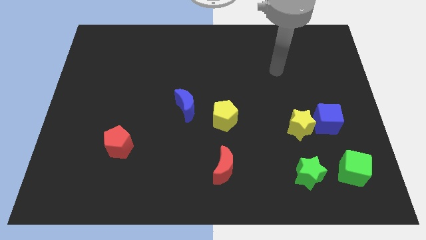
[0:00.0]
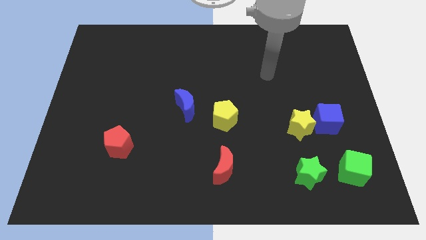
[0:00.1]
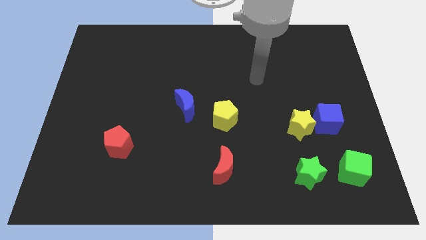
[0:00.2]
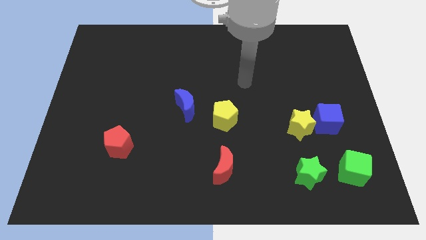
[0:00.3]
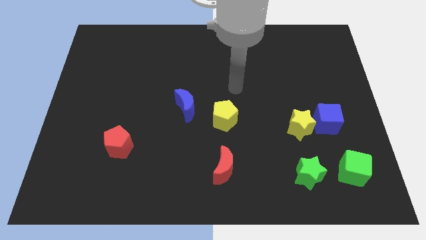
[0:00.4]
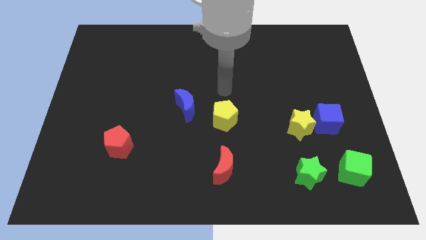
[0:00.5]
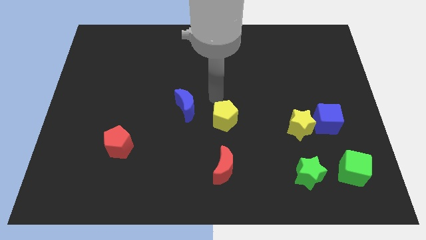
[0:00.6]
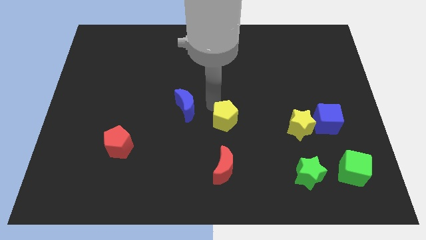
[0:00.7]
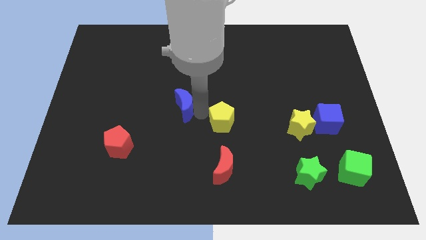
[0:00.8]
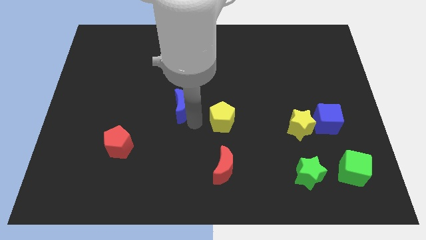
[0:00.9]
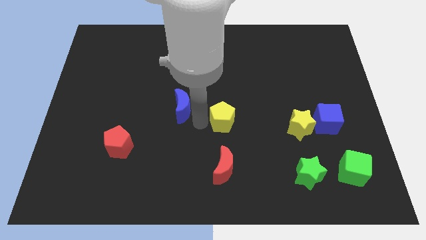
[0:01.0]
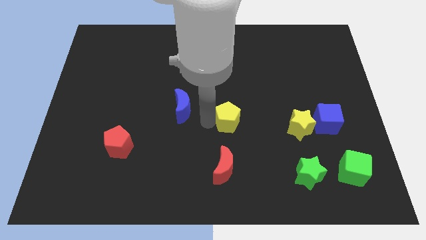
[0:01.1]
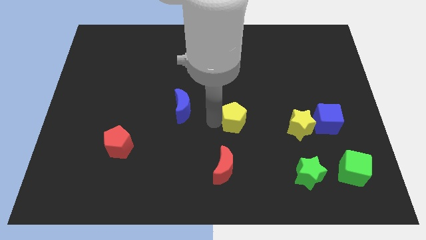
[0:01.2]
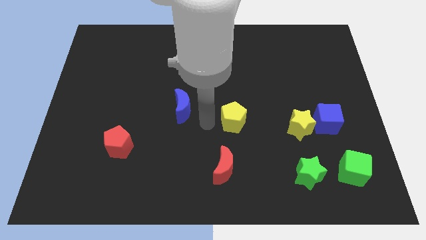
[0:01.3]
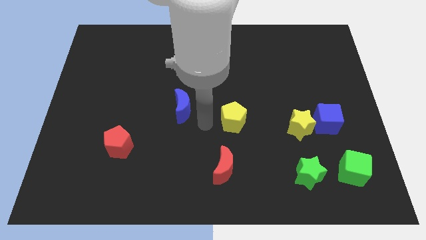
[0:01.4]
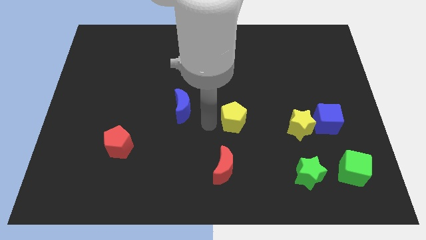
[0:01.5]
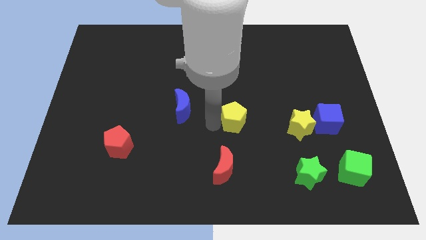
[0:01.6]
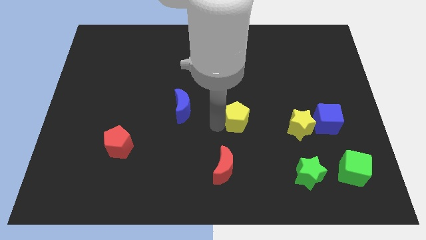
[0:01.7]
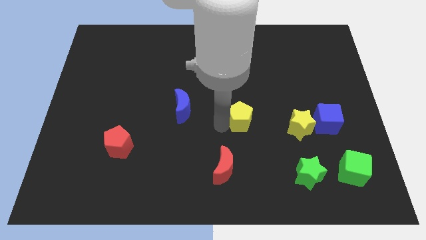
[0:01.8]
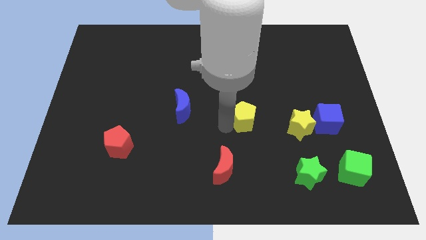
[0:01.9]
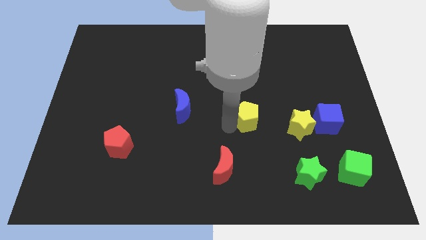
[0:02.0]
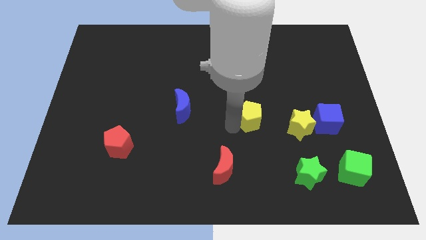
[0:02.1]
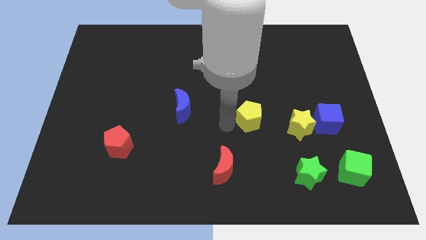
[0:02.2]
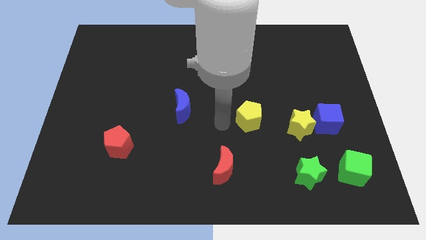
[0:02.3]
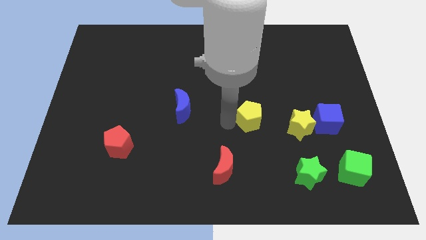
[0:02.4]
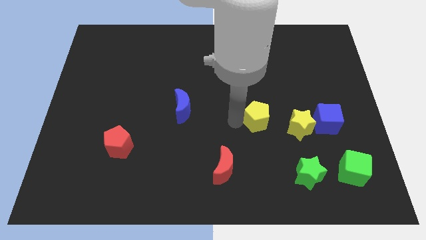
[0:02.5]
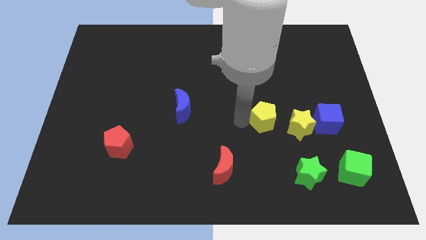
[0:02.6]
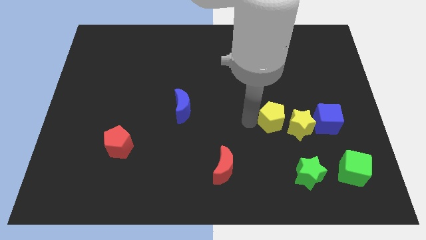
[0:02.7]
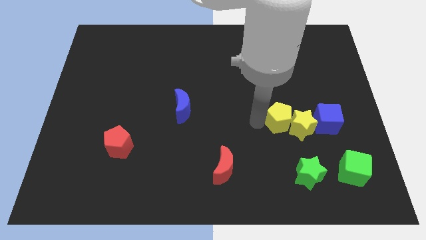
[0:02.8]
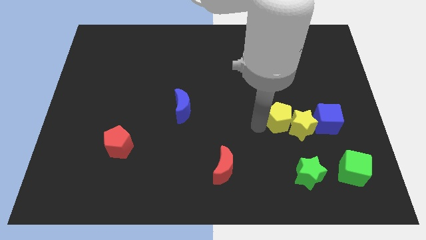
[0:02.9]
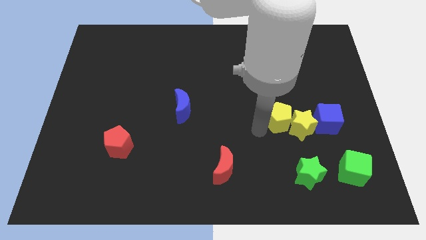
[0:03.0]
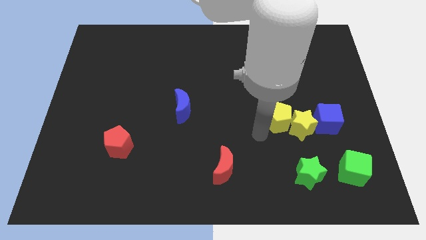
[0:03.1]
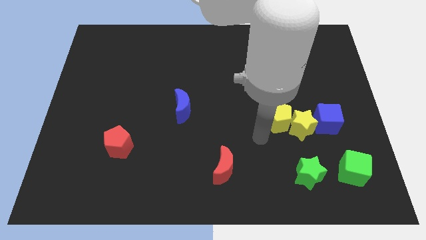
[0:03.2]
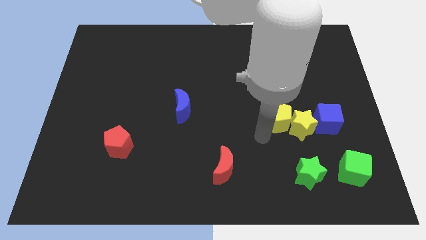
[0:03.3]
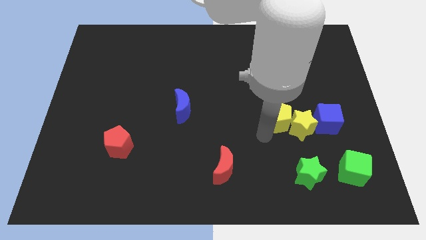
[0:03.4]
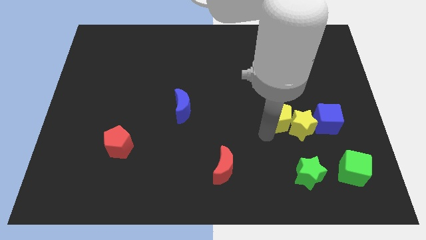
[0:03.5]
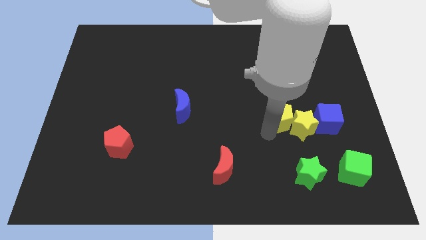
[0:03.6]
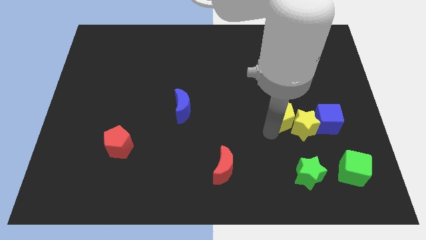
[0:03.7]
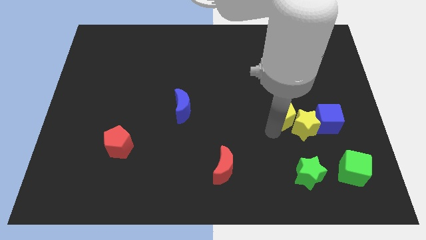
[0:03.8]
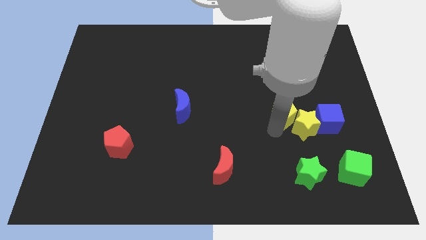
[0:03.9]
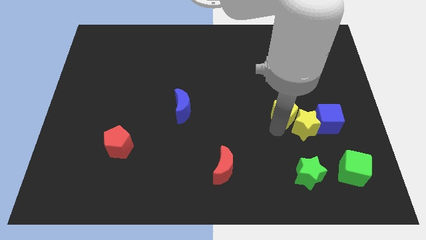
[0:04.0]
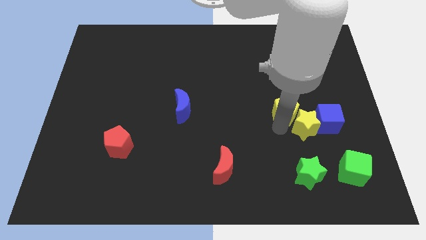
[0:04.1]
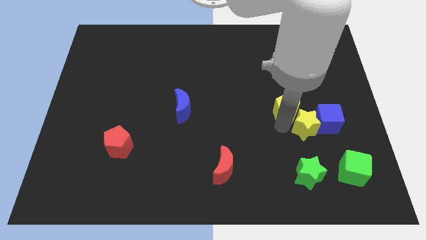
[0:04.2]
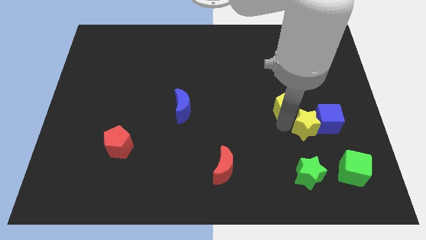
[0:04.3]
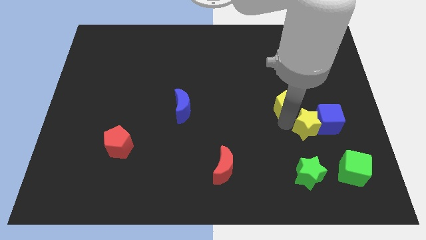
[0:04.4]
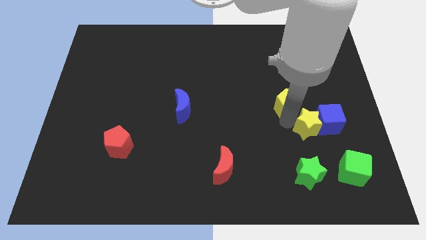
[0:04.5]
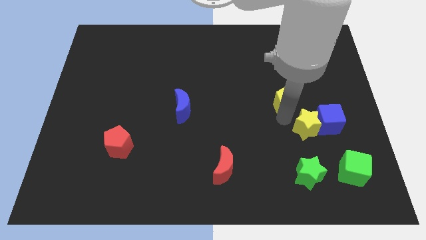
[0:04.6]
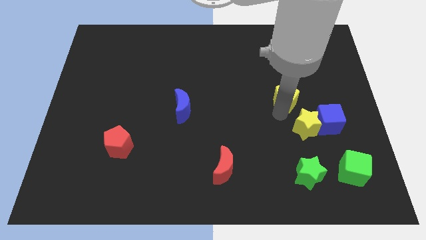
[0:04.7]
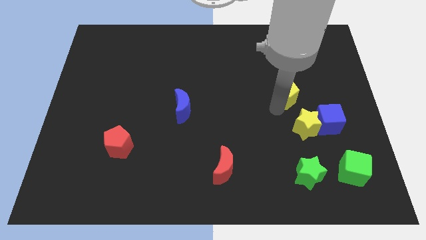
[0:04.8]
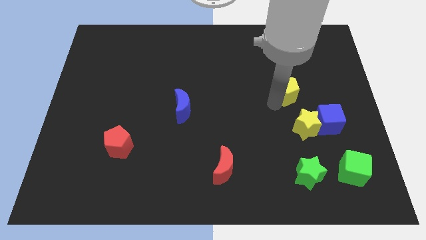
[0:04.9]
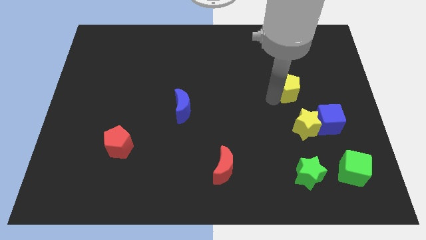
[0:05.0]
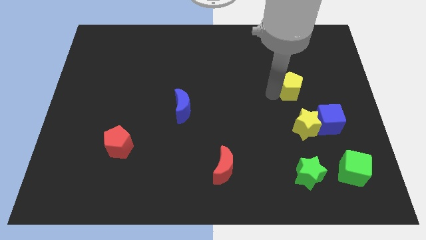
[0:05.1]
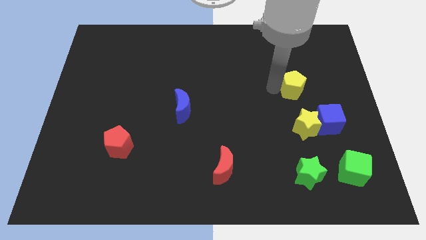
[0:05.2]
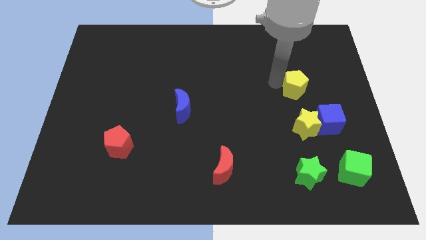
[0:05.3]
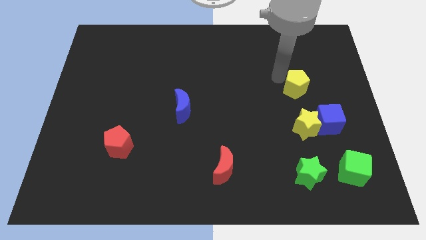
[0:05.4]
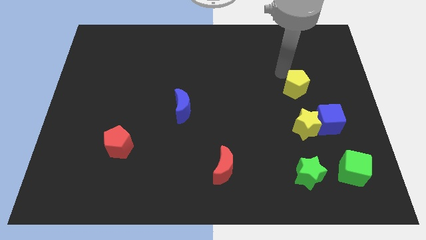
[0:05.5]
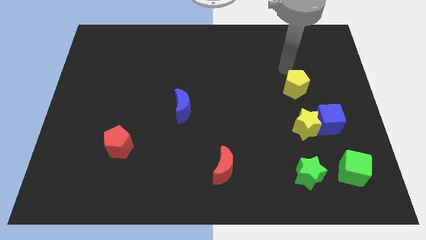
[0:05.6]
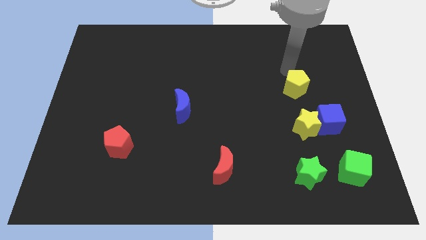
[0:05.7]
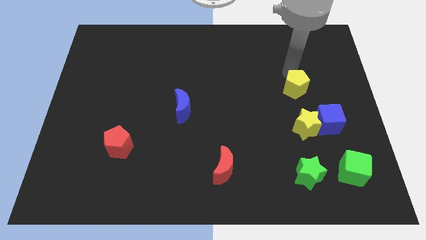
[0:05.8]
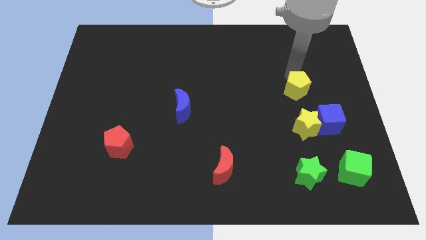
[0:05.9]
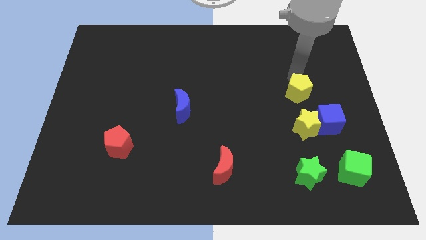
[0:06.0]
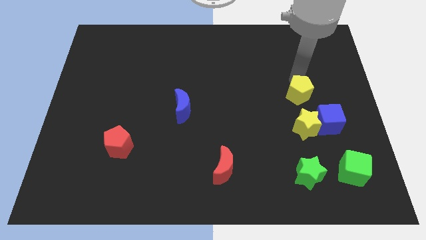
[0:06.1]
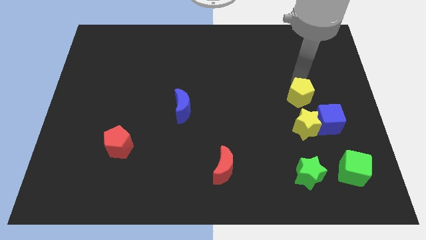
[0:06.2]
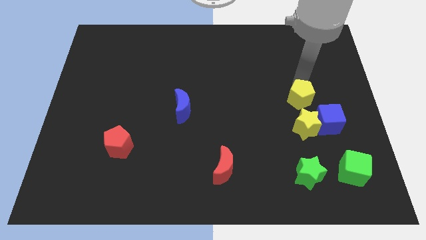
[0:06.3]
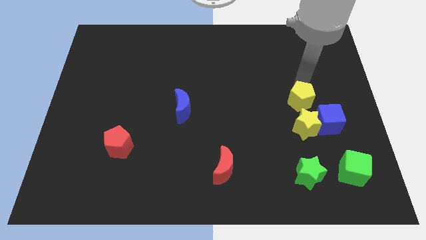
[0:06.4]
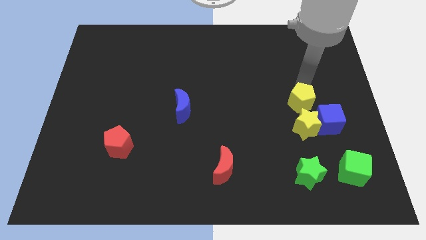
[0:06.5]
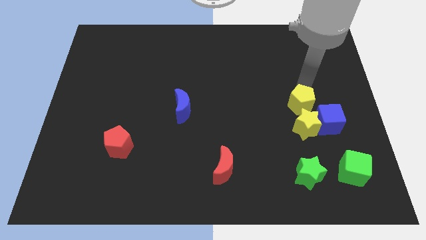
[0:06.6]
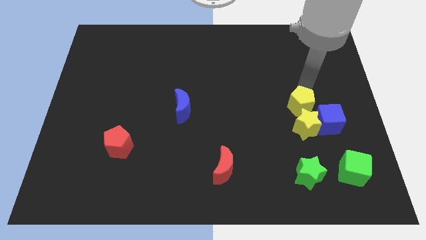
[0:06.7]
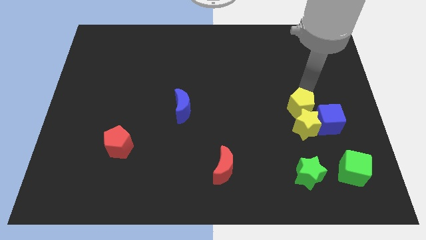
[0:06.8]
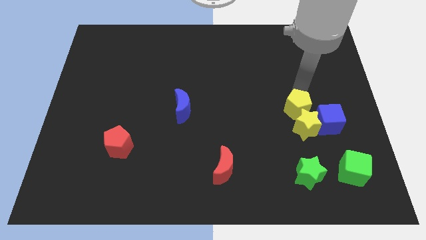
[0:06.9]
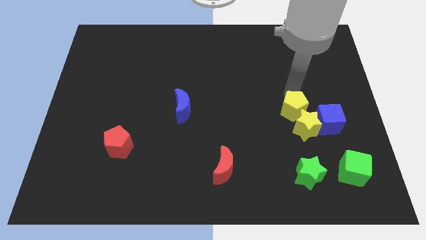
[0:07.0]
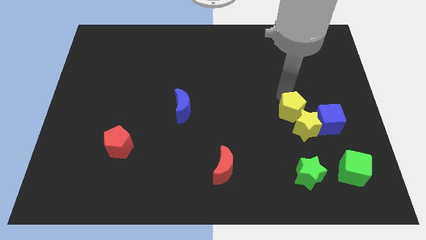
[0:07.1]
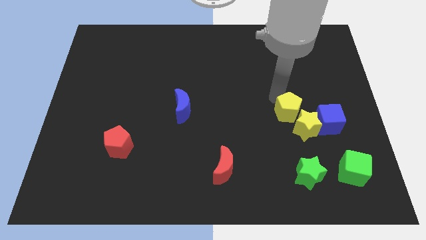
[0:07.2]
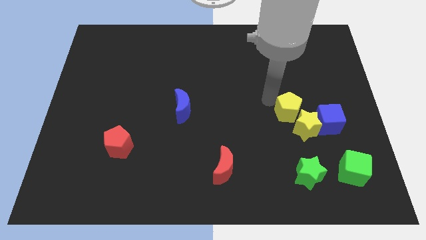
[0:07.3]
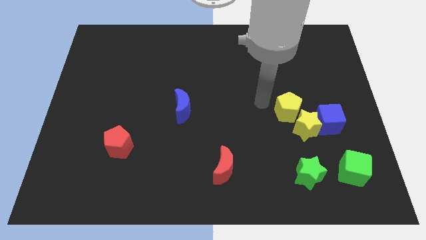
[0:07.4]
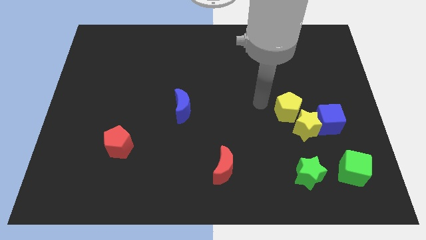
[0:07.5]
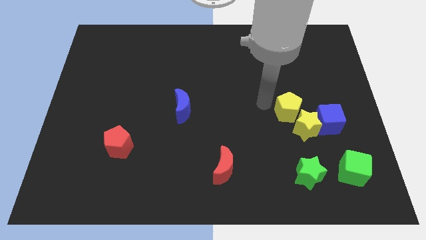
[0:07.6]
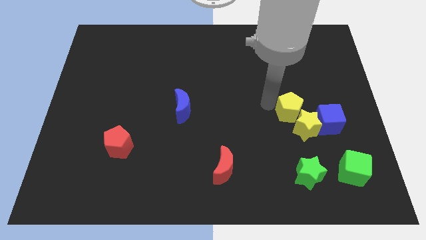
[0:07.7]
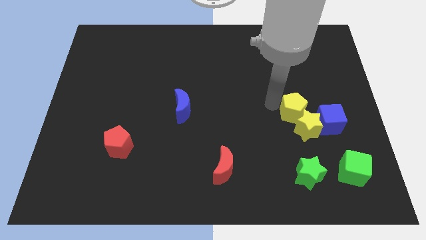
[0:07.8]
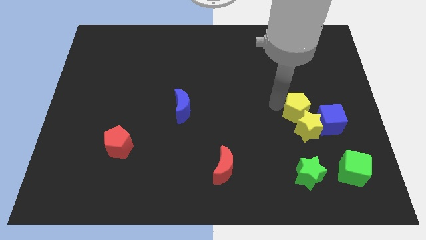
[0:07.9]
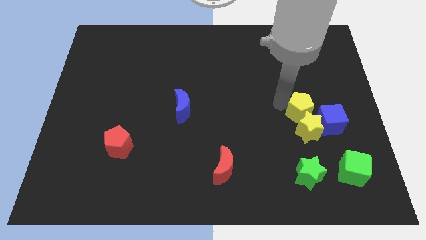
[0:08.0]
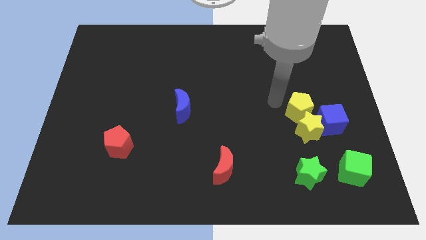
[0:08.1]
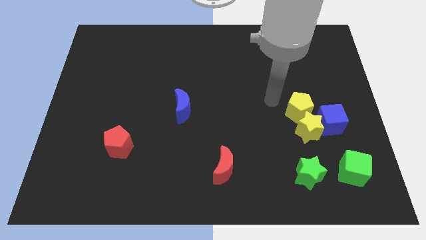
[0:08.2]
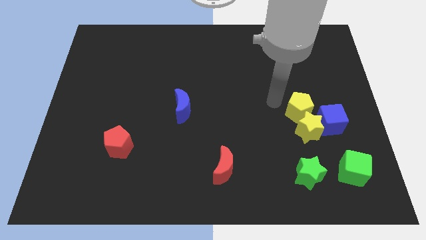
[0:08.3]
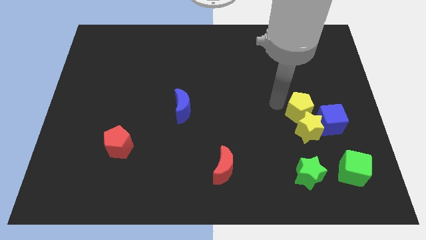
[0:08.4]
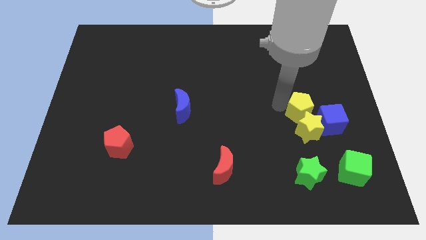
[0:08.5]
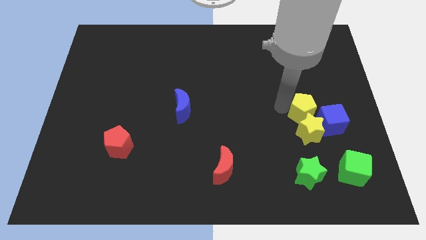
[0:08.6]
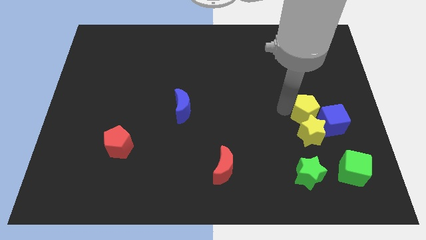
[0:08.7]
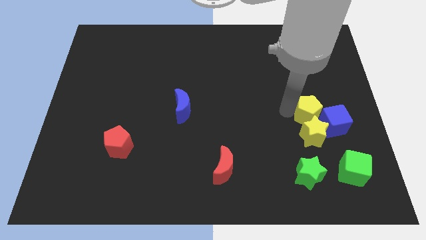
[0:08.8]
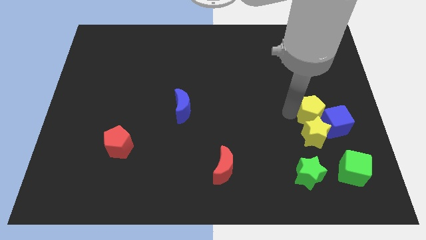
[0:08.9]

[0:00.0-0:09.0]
move the yellow pentagon close to the blue cube
